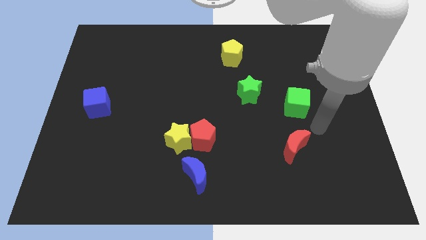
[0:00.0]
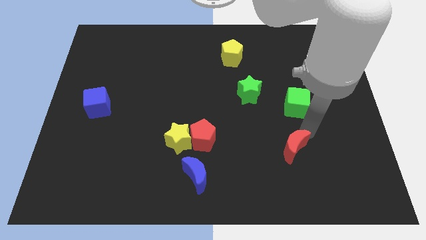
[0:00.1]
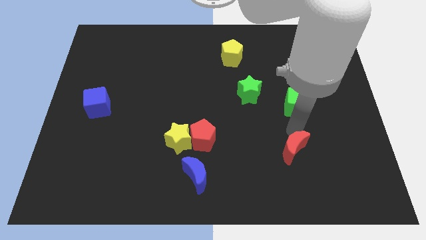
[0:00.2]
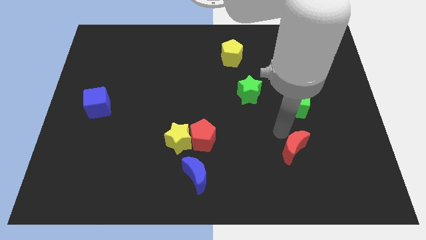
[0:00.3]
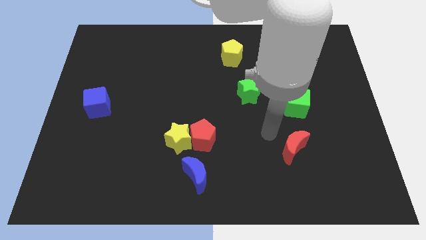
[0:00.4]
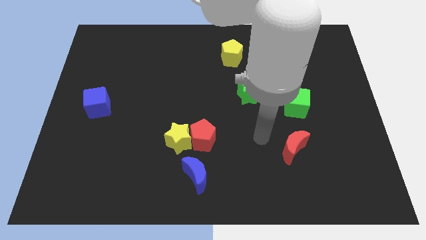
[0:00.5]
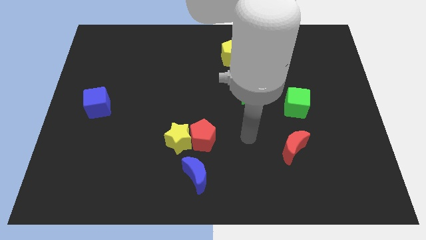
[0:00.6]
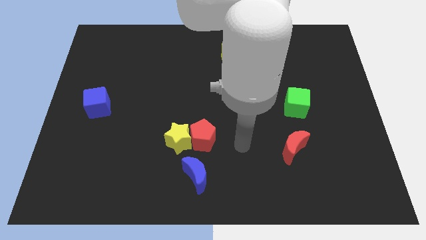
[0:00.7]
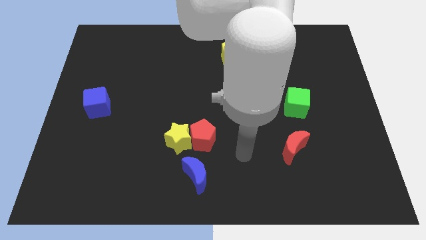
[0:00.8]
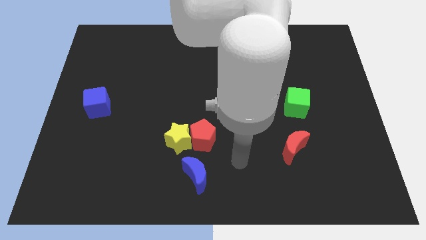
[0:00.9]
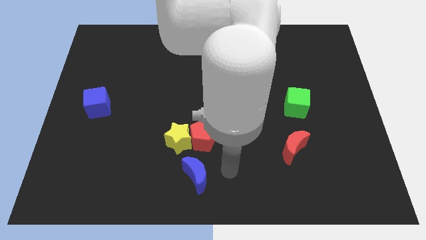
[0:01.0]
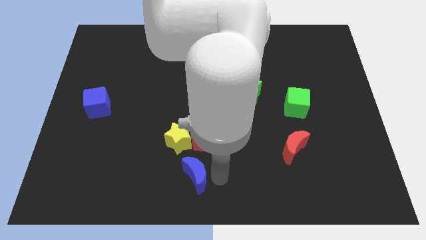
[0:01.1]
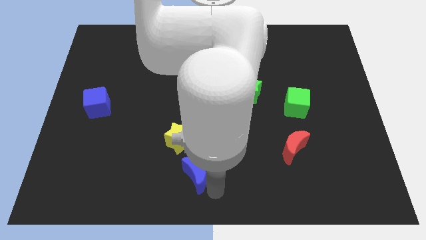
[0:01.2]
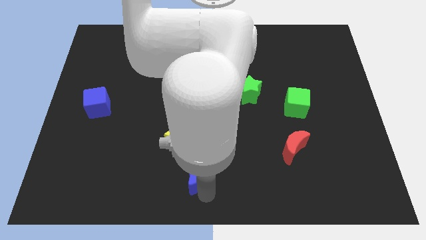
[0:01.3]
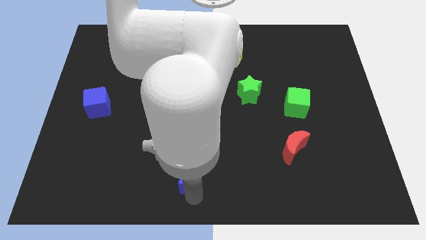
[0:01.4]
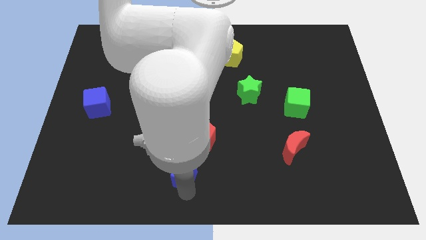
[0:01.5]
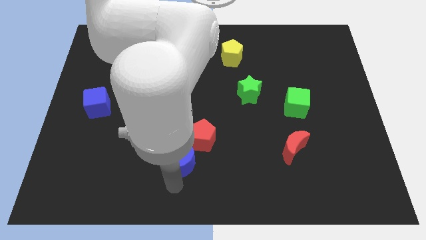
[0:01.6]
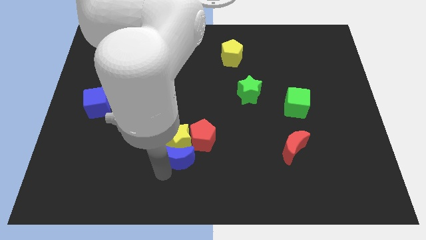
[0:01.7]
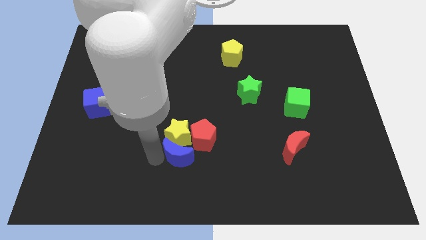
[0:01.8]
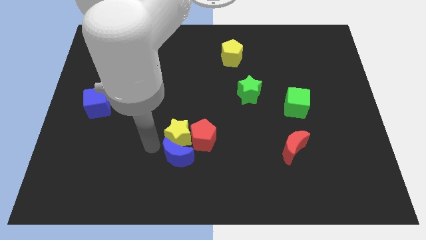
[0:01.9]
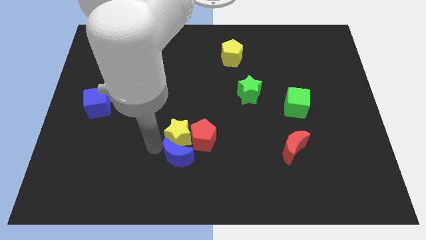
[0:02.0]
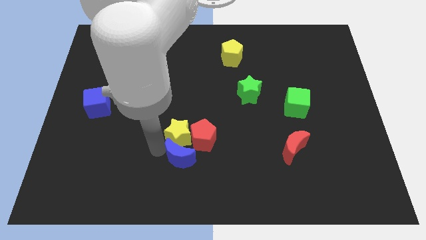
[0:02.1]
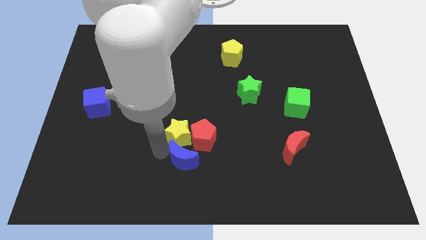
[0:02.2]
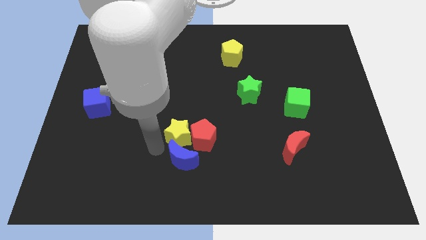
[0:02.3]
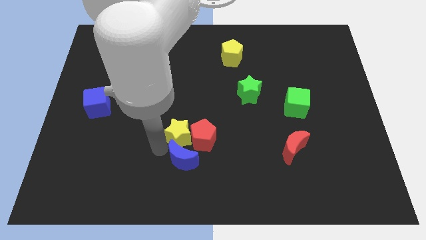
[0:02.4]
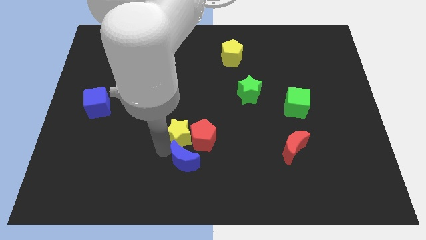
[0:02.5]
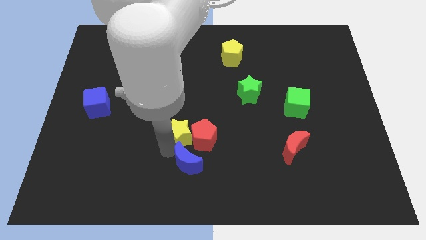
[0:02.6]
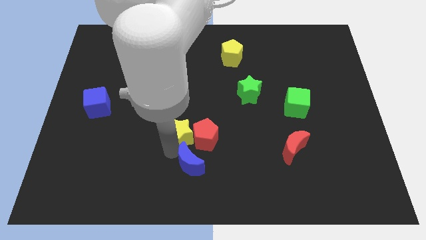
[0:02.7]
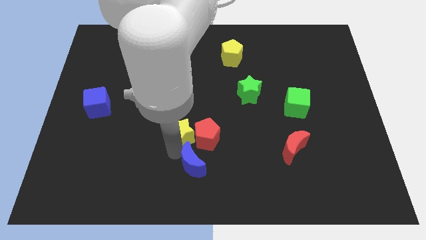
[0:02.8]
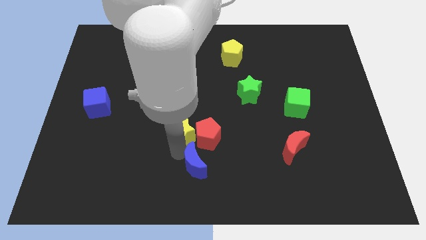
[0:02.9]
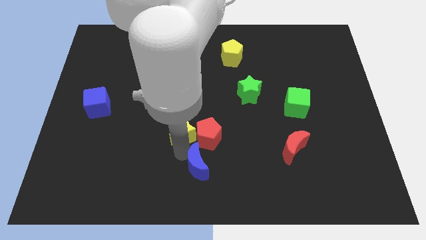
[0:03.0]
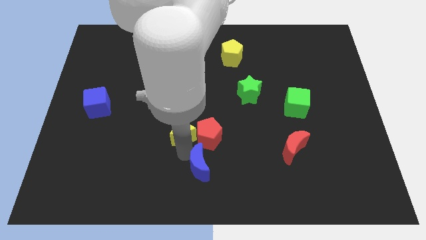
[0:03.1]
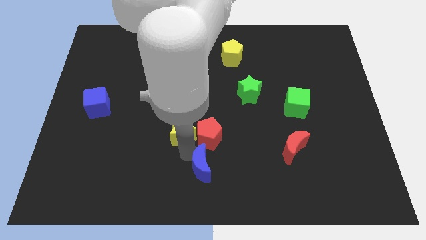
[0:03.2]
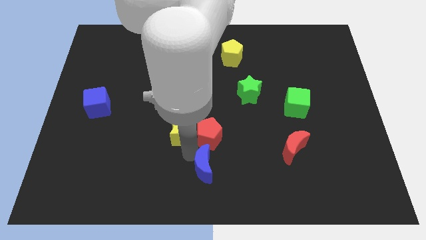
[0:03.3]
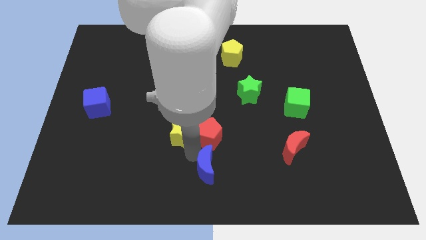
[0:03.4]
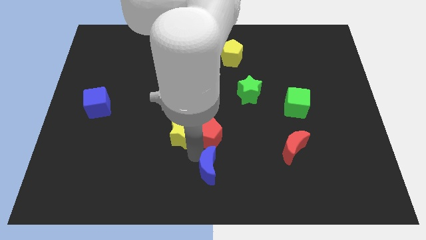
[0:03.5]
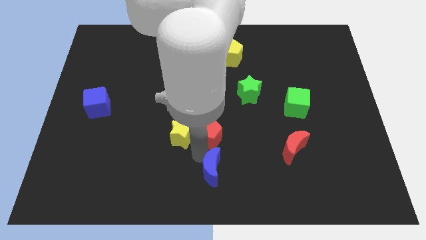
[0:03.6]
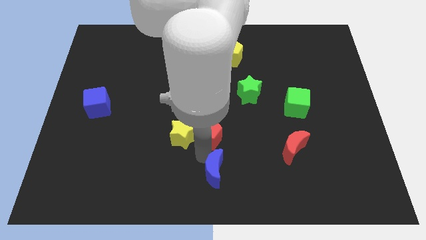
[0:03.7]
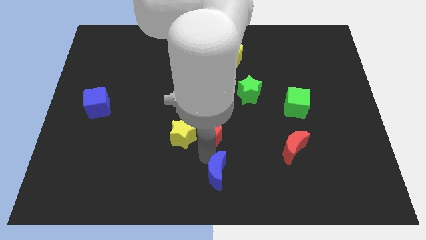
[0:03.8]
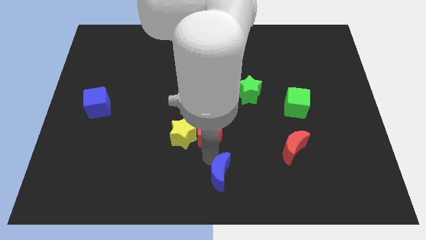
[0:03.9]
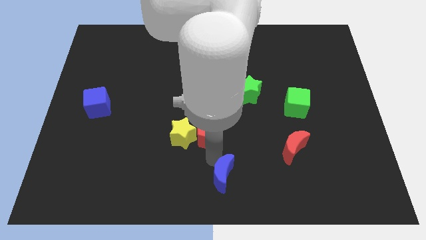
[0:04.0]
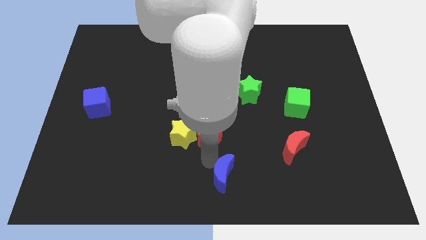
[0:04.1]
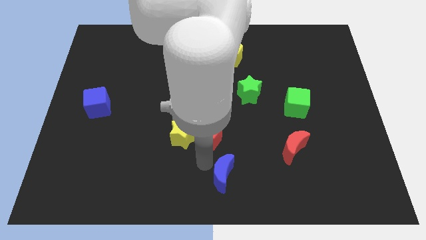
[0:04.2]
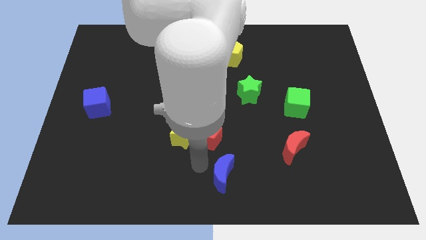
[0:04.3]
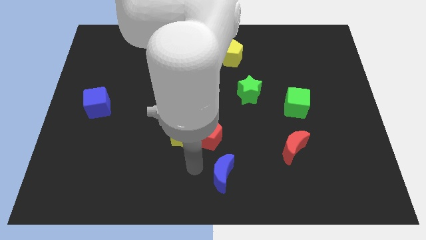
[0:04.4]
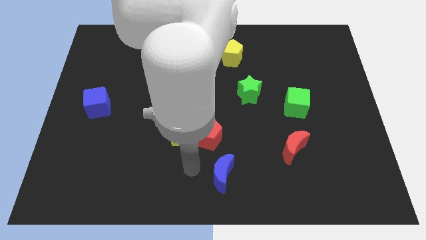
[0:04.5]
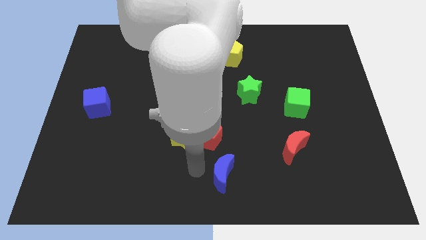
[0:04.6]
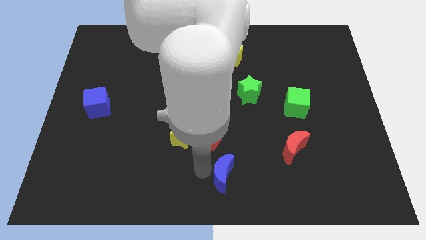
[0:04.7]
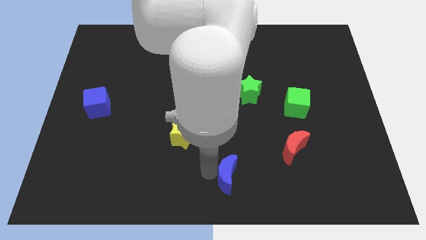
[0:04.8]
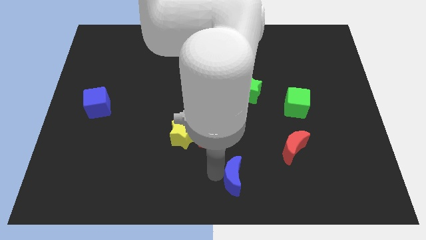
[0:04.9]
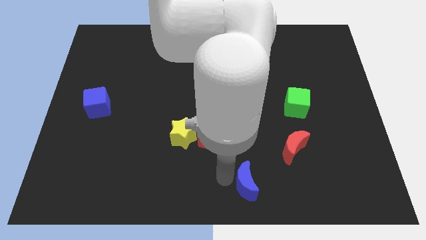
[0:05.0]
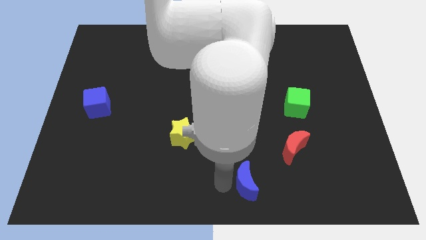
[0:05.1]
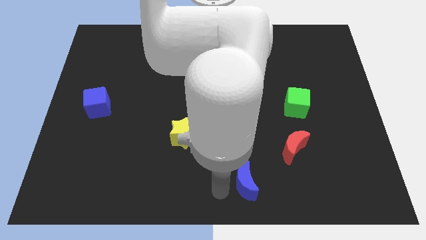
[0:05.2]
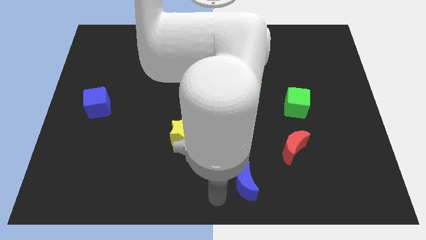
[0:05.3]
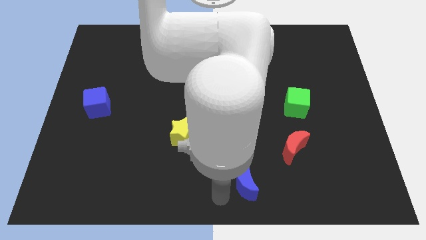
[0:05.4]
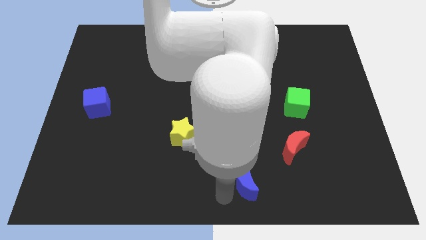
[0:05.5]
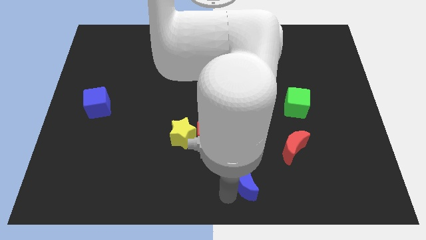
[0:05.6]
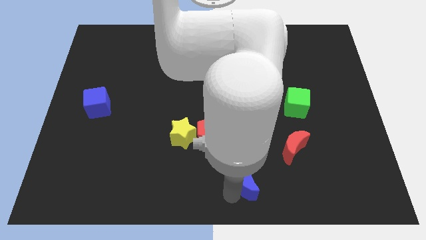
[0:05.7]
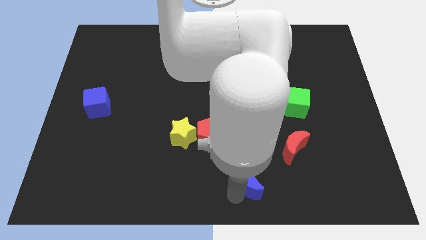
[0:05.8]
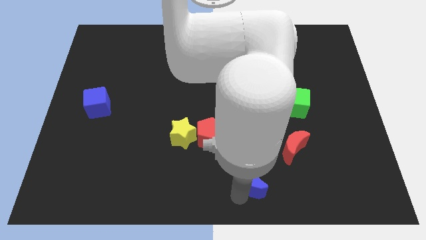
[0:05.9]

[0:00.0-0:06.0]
move the blue moon to the bottom left of the red moon

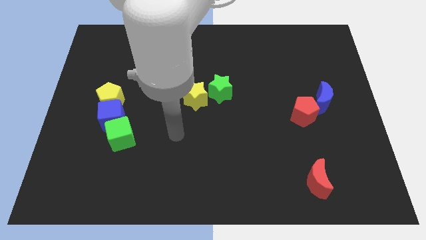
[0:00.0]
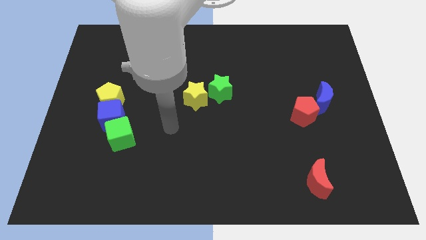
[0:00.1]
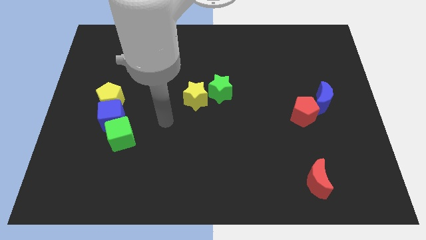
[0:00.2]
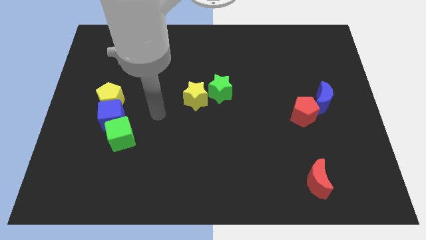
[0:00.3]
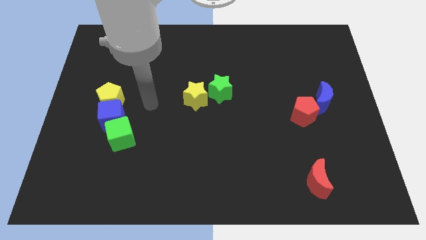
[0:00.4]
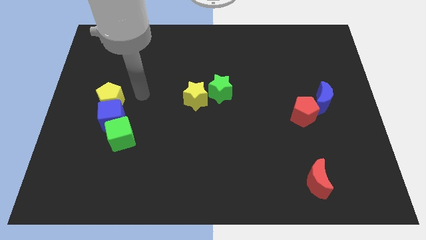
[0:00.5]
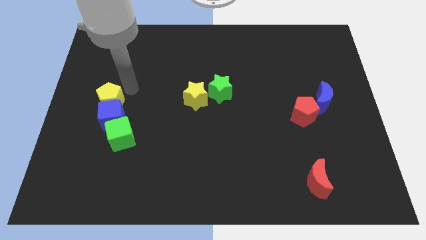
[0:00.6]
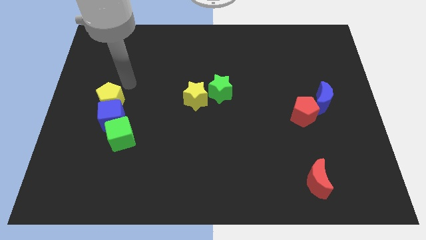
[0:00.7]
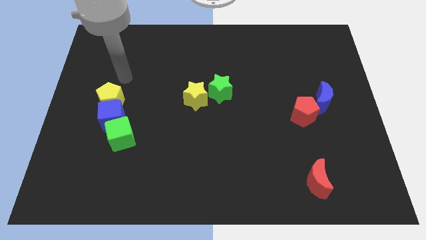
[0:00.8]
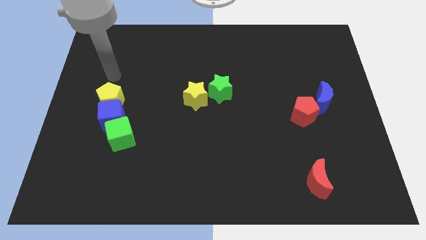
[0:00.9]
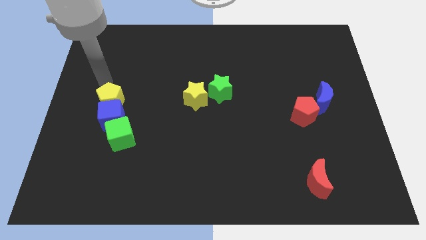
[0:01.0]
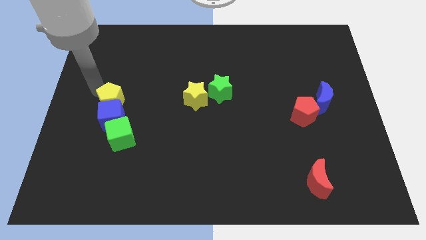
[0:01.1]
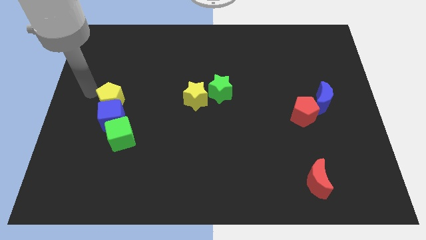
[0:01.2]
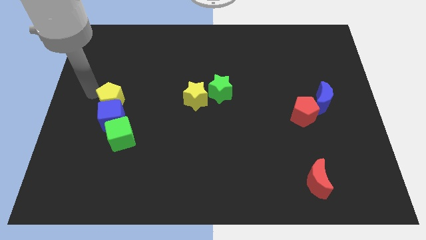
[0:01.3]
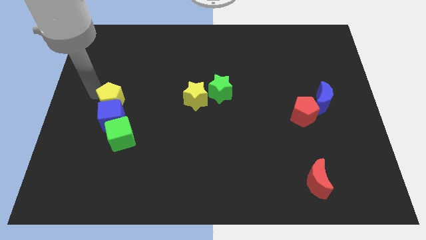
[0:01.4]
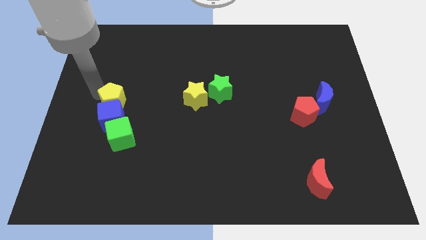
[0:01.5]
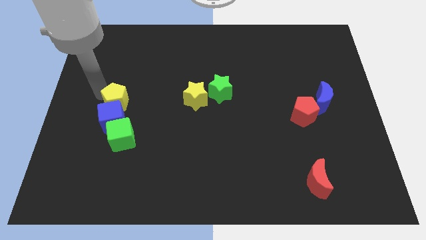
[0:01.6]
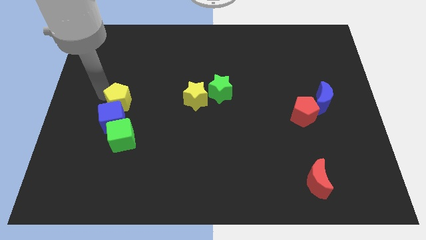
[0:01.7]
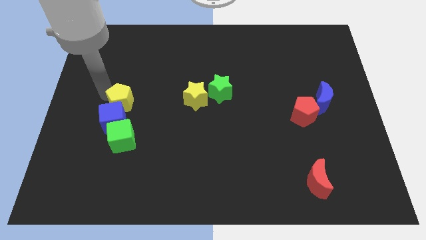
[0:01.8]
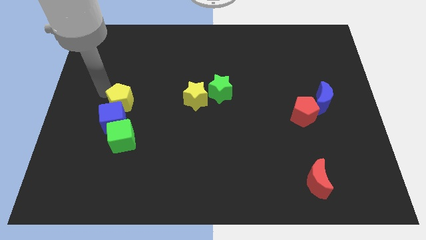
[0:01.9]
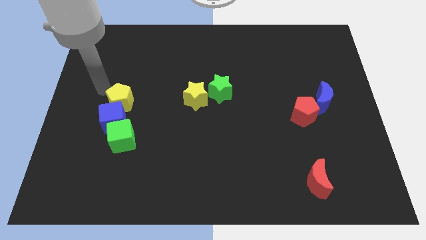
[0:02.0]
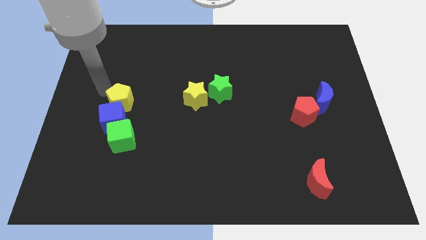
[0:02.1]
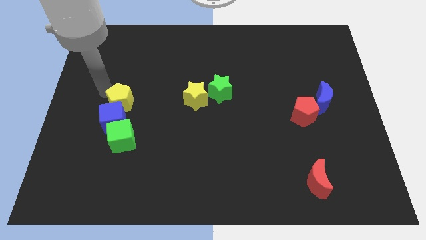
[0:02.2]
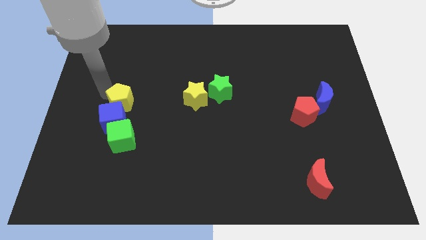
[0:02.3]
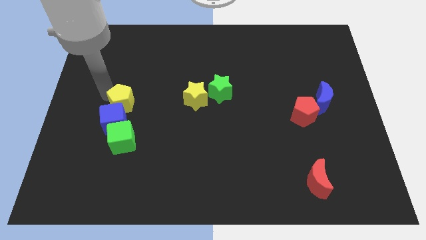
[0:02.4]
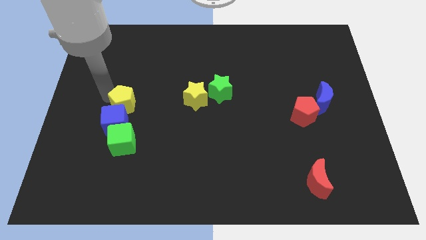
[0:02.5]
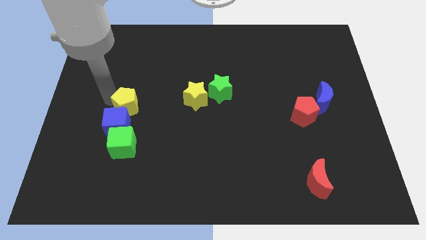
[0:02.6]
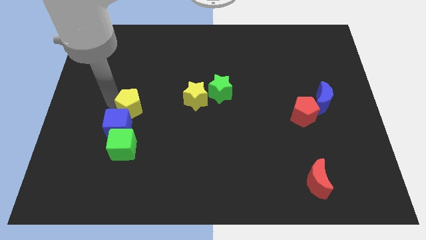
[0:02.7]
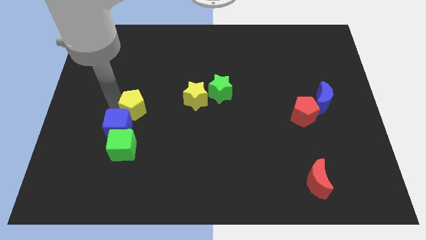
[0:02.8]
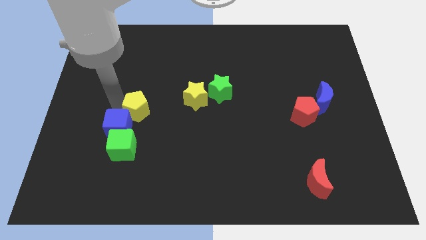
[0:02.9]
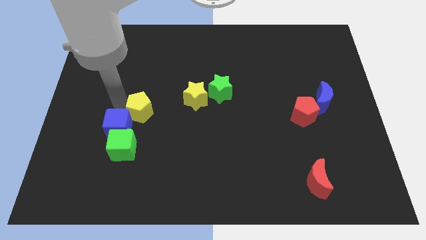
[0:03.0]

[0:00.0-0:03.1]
move the yellow pentagon just right of the blue cube
